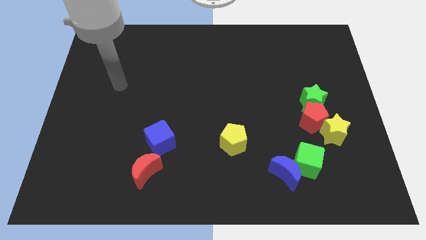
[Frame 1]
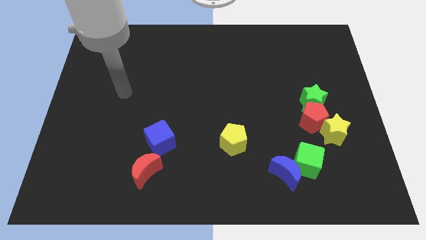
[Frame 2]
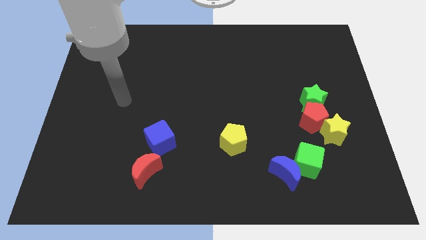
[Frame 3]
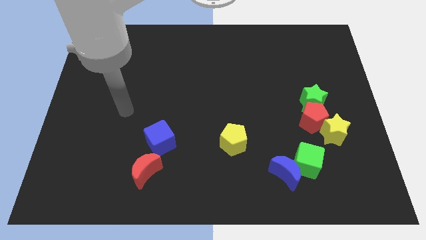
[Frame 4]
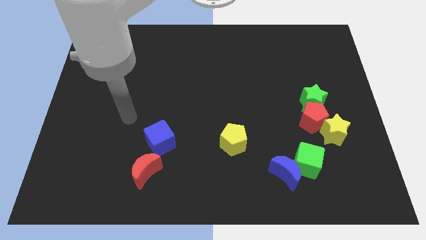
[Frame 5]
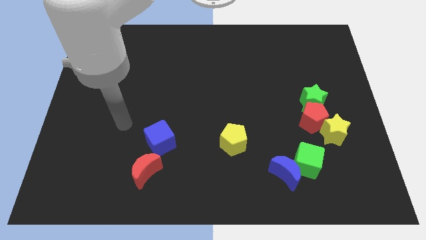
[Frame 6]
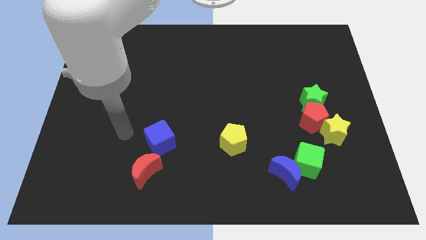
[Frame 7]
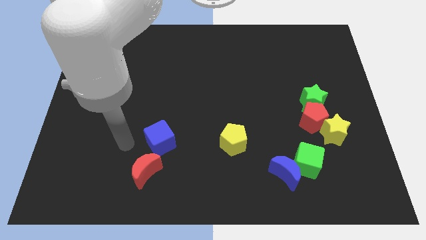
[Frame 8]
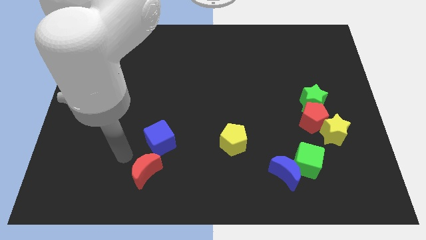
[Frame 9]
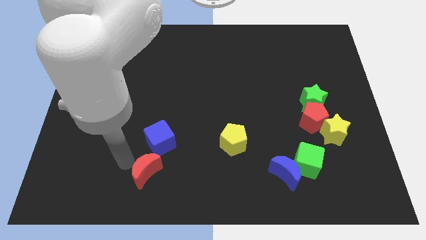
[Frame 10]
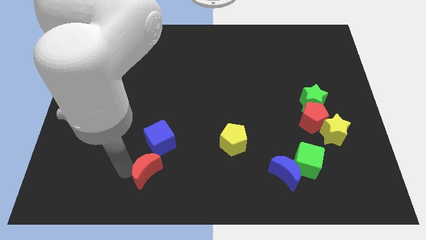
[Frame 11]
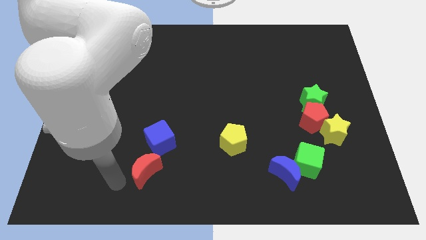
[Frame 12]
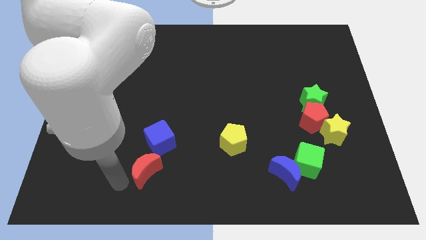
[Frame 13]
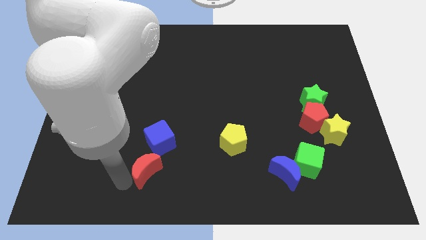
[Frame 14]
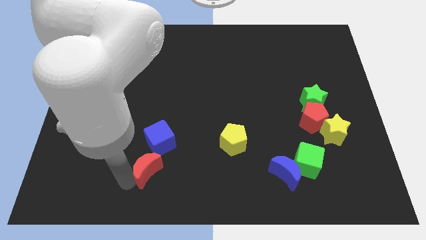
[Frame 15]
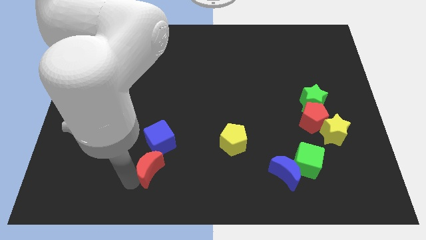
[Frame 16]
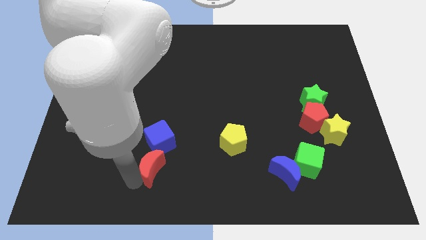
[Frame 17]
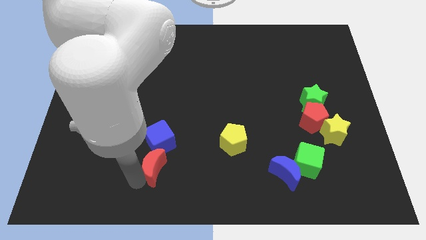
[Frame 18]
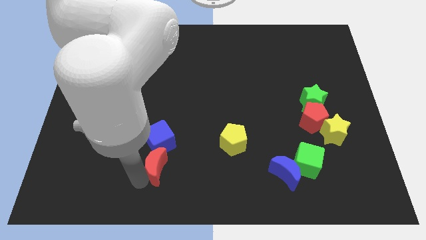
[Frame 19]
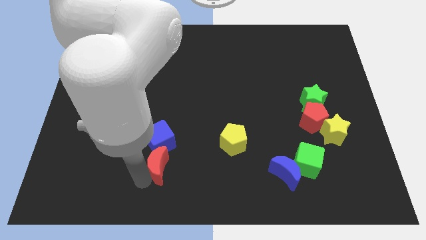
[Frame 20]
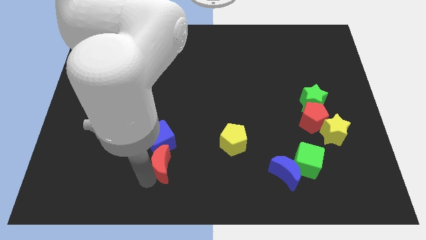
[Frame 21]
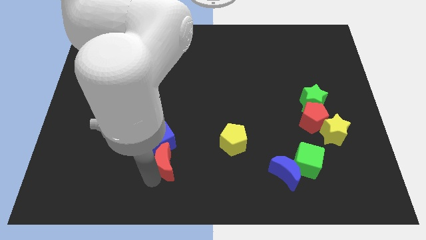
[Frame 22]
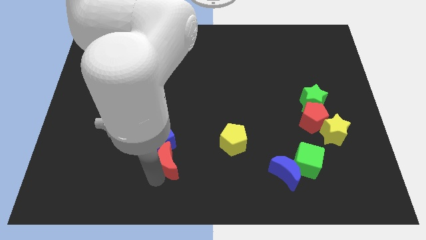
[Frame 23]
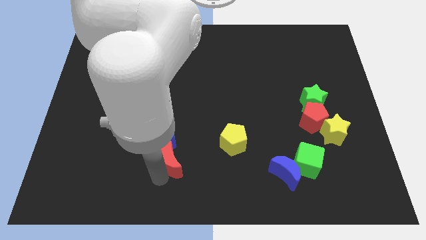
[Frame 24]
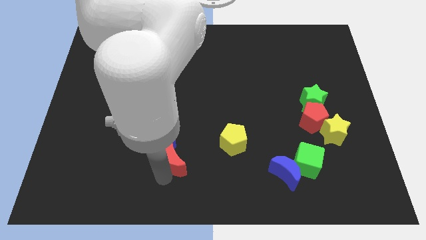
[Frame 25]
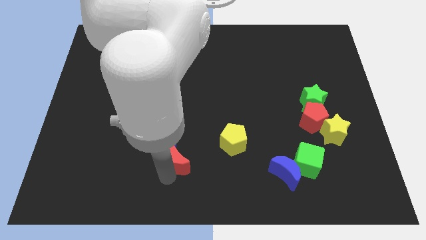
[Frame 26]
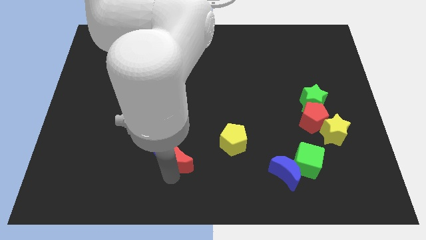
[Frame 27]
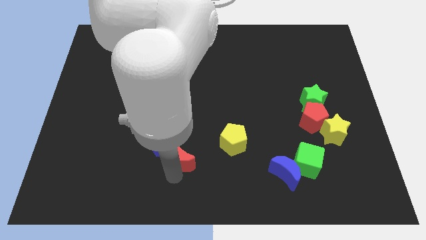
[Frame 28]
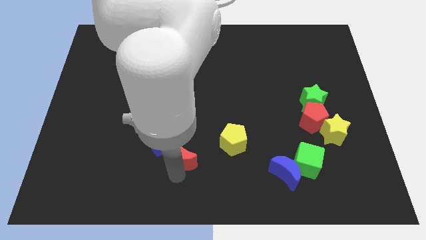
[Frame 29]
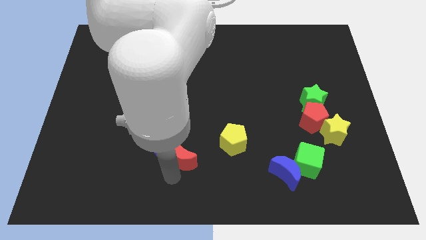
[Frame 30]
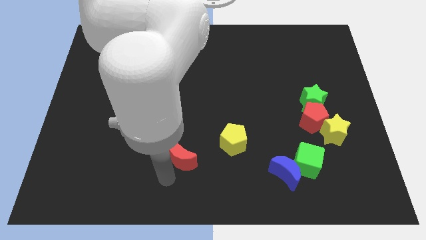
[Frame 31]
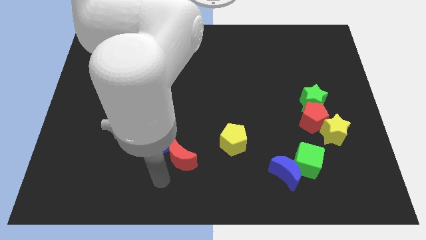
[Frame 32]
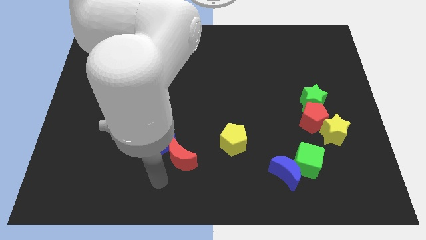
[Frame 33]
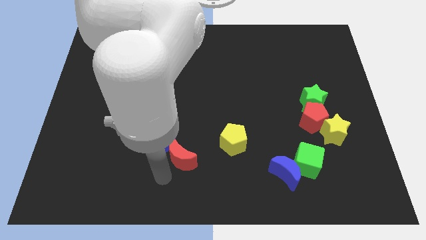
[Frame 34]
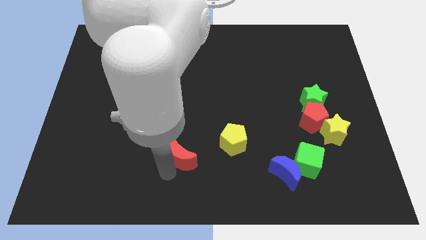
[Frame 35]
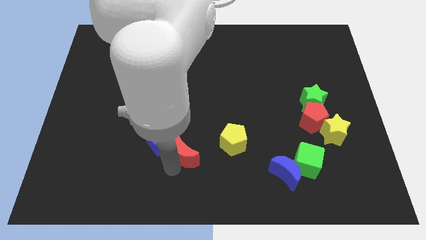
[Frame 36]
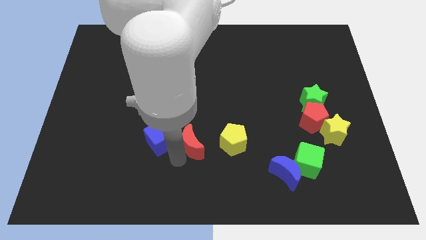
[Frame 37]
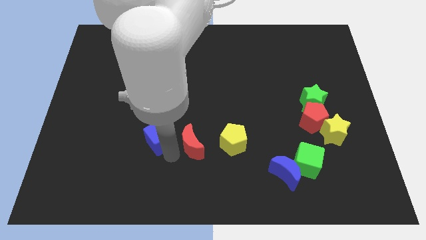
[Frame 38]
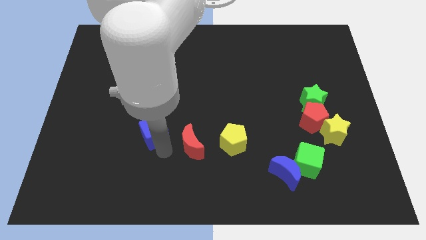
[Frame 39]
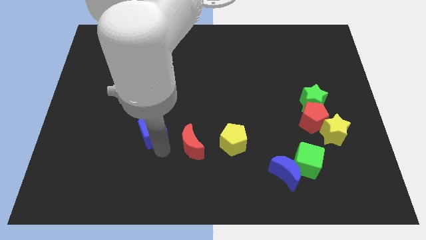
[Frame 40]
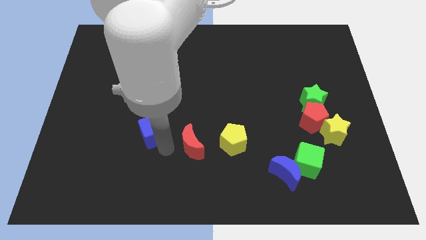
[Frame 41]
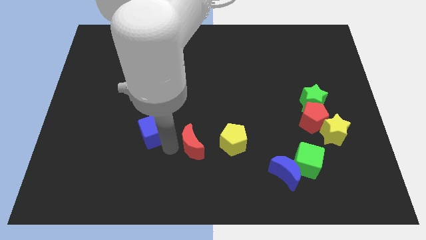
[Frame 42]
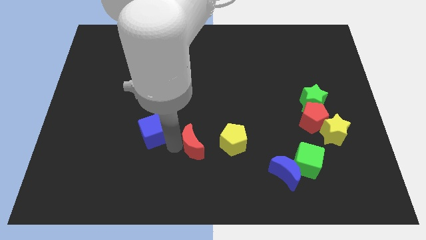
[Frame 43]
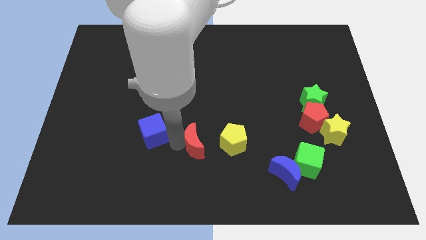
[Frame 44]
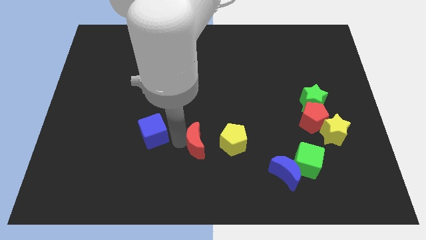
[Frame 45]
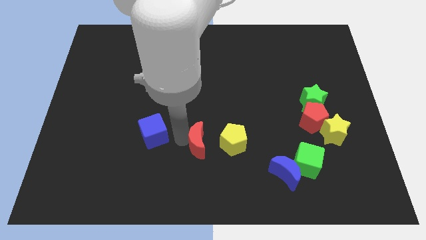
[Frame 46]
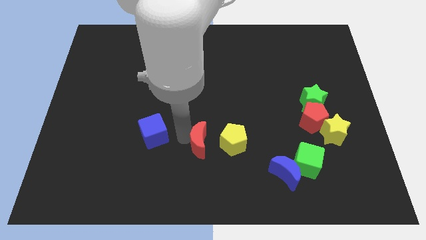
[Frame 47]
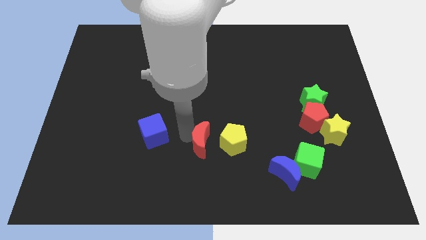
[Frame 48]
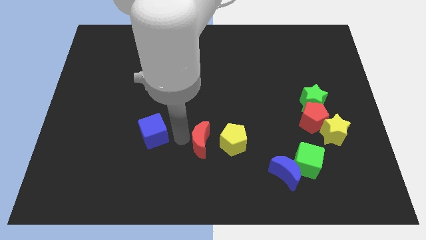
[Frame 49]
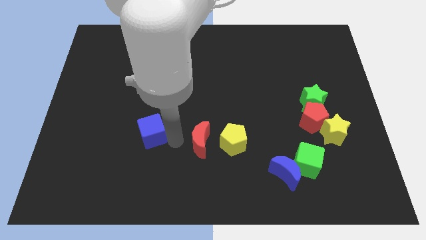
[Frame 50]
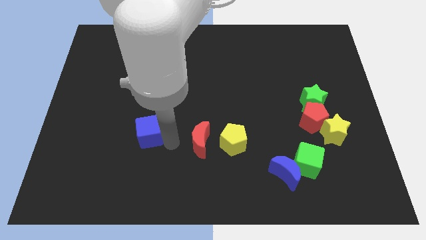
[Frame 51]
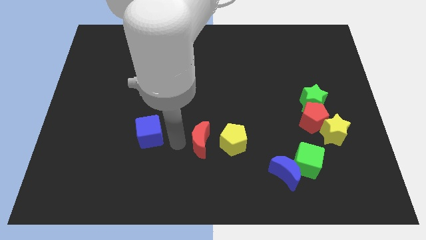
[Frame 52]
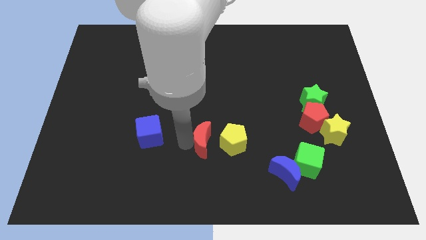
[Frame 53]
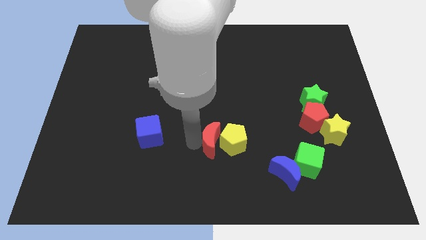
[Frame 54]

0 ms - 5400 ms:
push the red moon close to the yellow pentagon

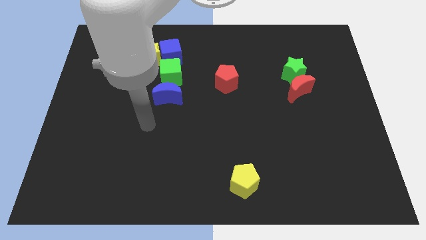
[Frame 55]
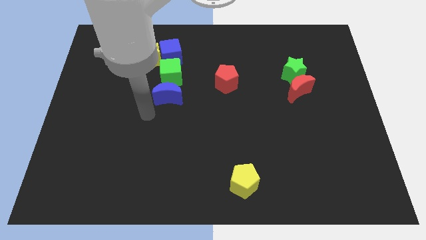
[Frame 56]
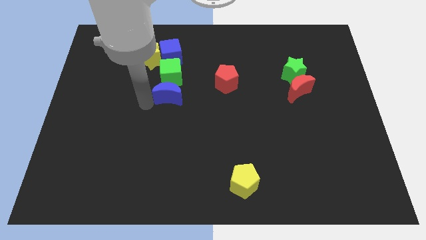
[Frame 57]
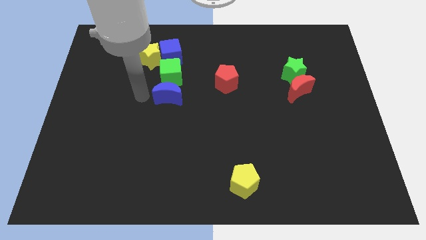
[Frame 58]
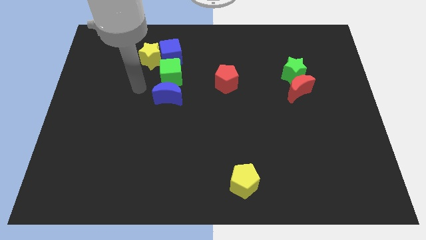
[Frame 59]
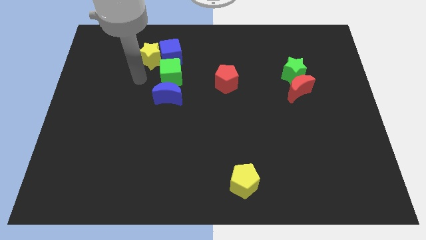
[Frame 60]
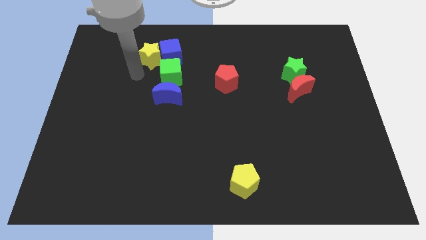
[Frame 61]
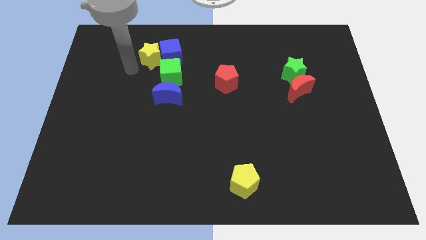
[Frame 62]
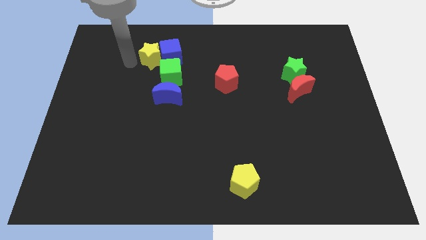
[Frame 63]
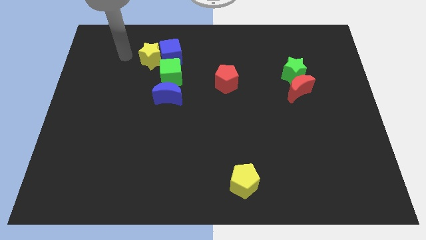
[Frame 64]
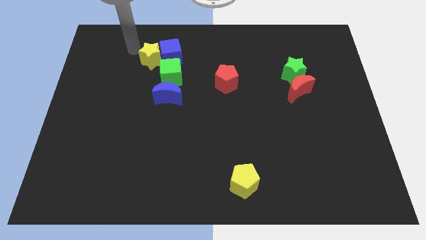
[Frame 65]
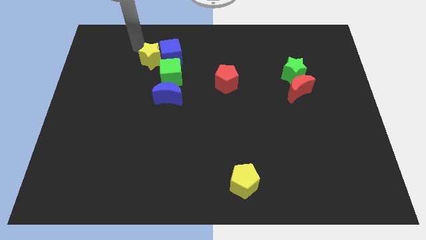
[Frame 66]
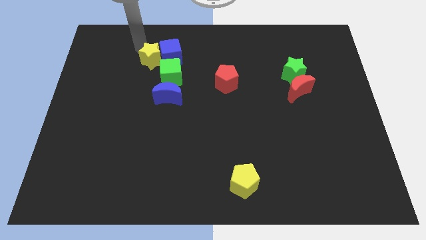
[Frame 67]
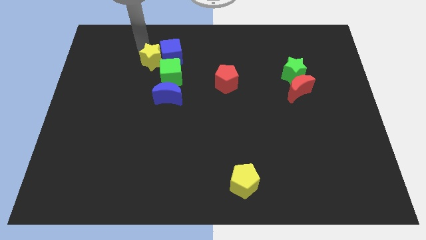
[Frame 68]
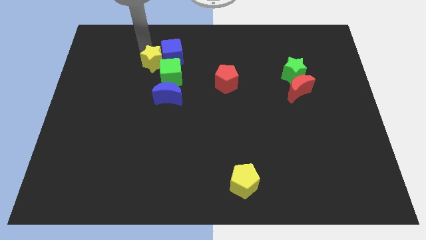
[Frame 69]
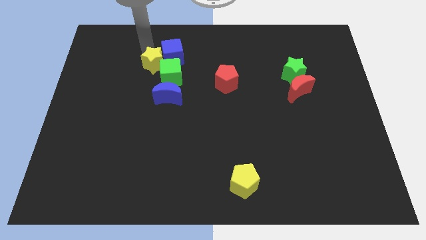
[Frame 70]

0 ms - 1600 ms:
put the yellow star next to the green cube
